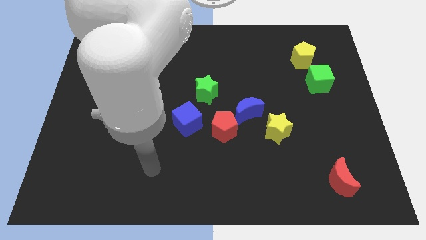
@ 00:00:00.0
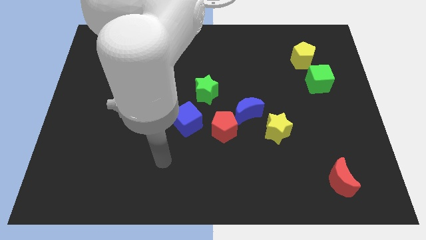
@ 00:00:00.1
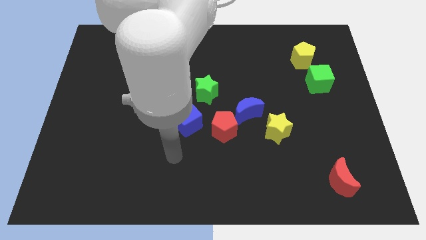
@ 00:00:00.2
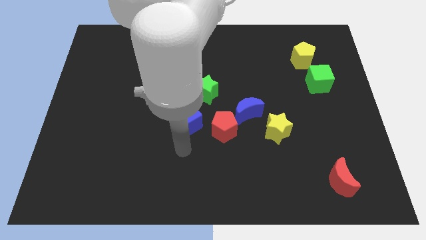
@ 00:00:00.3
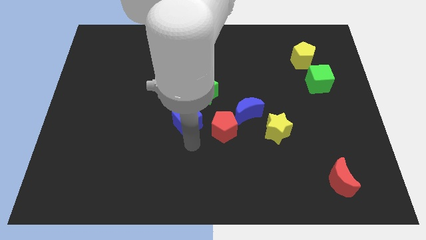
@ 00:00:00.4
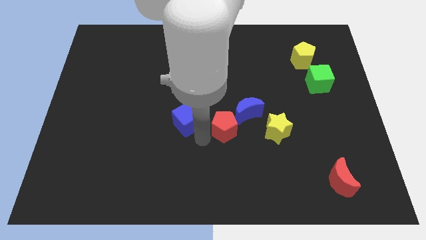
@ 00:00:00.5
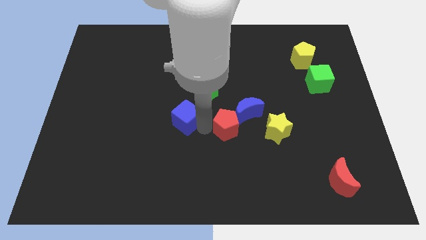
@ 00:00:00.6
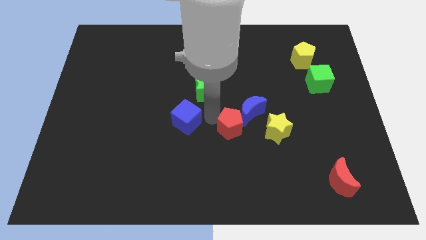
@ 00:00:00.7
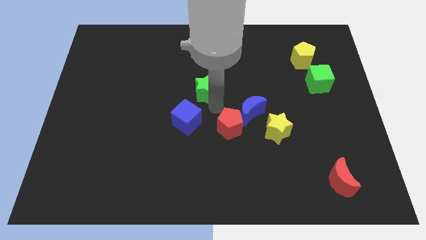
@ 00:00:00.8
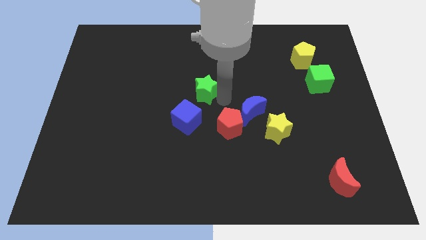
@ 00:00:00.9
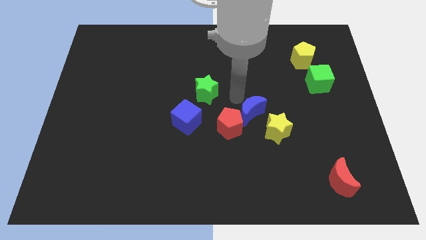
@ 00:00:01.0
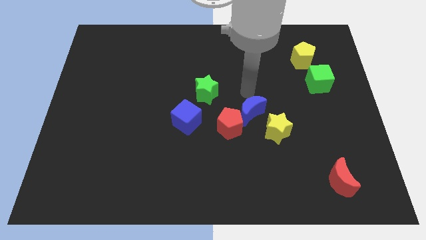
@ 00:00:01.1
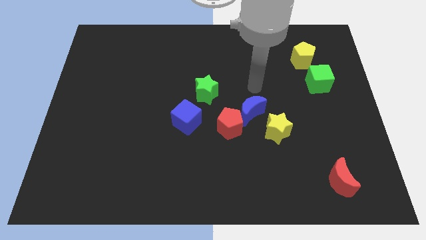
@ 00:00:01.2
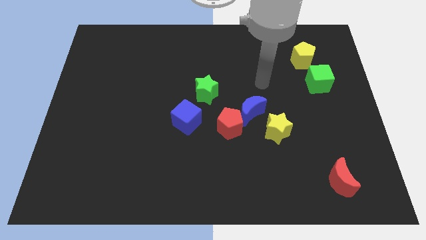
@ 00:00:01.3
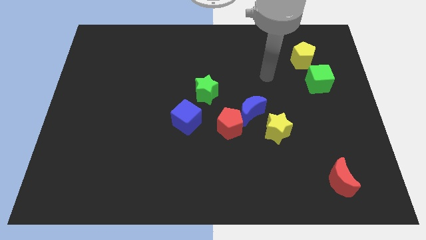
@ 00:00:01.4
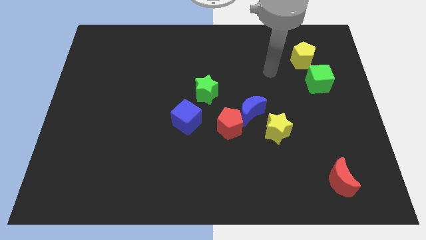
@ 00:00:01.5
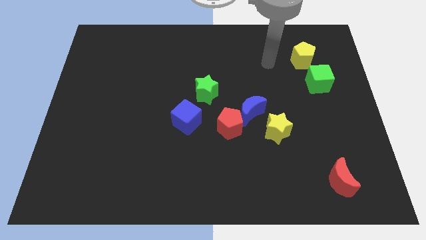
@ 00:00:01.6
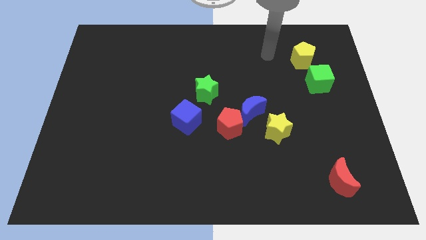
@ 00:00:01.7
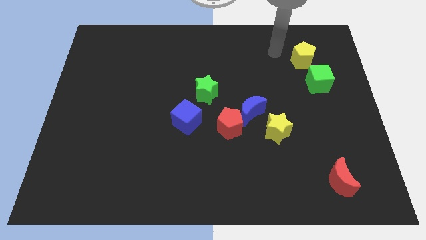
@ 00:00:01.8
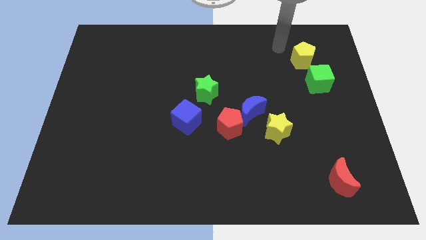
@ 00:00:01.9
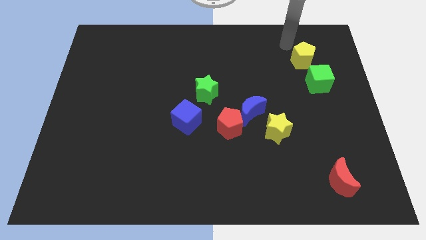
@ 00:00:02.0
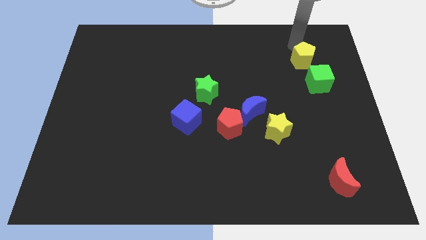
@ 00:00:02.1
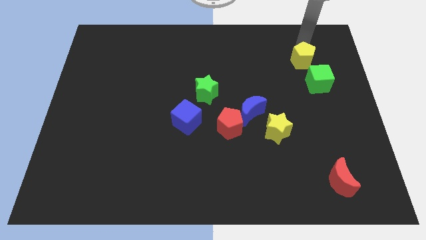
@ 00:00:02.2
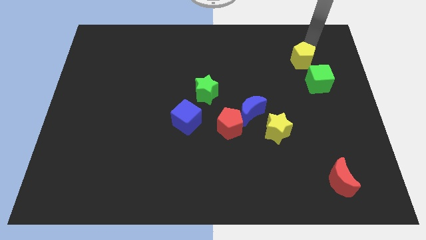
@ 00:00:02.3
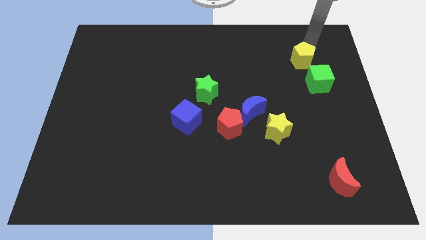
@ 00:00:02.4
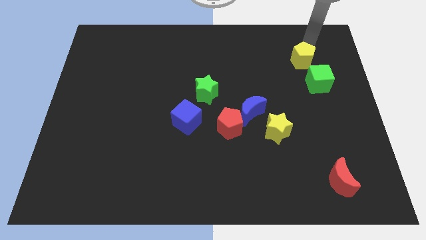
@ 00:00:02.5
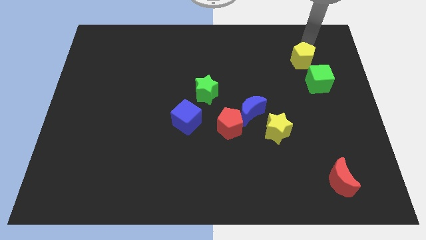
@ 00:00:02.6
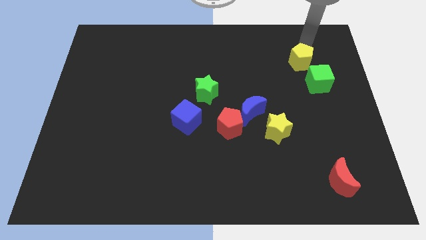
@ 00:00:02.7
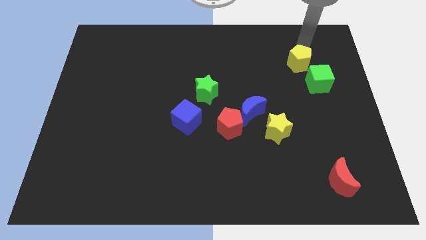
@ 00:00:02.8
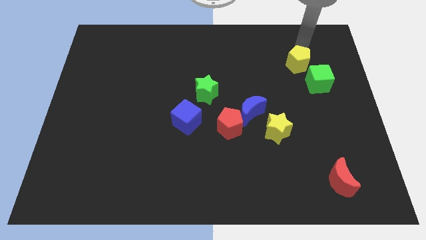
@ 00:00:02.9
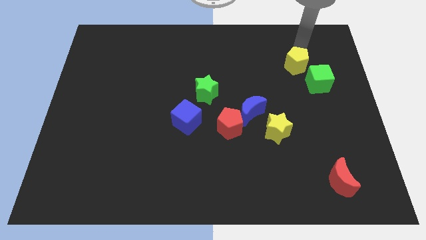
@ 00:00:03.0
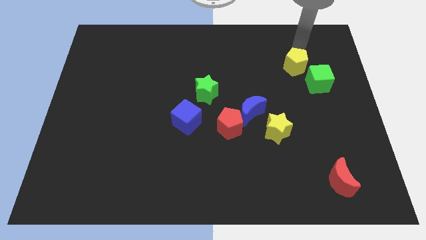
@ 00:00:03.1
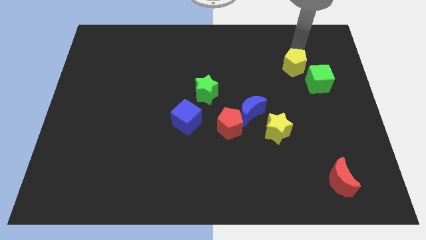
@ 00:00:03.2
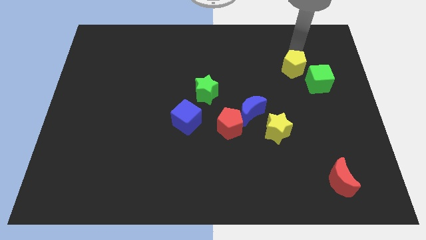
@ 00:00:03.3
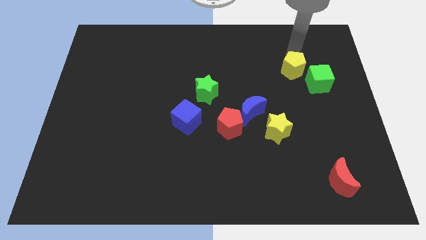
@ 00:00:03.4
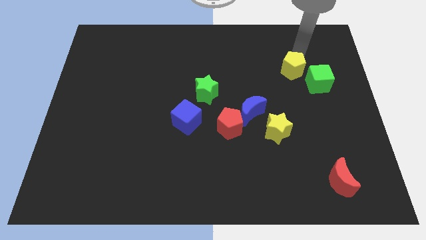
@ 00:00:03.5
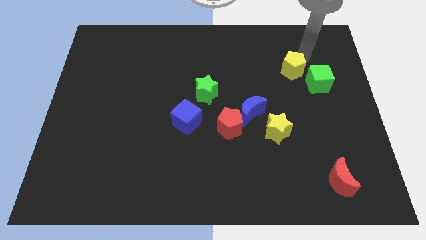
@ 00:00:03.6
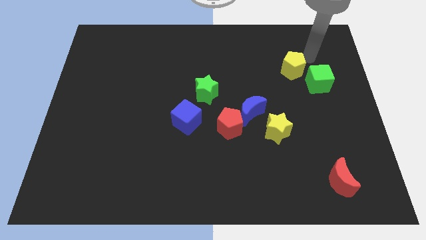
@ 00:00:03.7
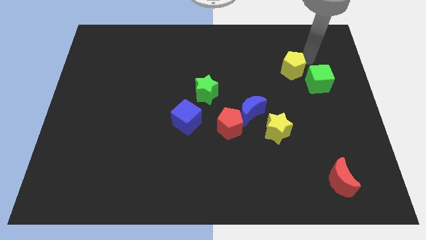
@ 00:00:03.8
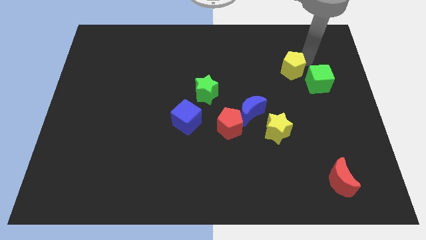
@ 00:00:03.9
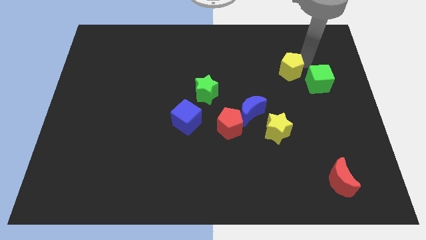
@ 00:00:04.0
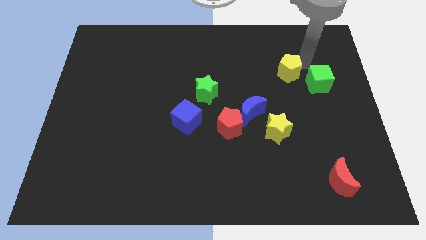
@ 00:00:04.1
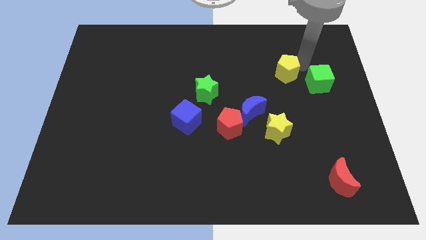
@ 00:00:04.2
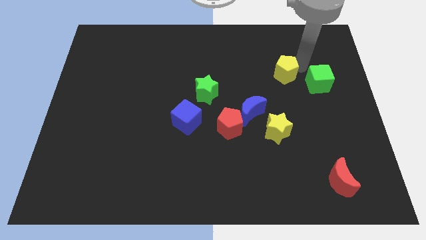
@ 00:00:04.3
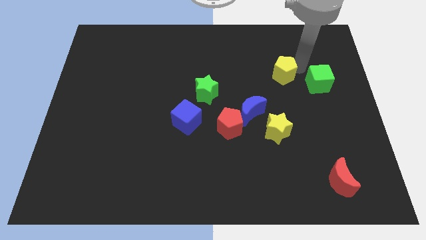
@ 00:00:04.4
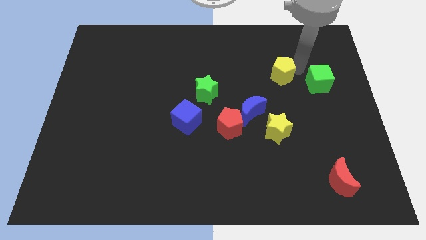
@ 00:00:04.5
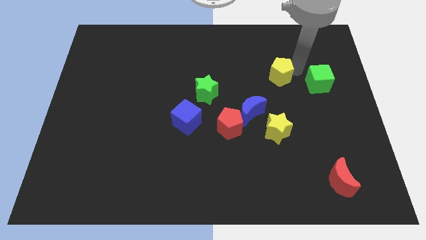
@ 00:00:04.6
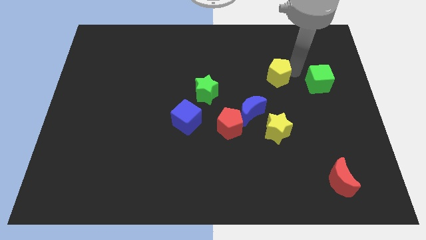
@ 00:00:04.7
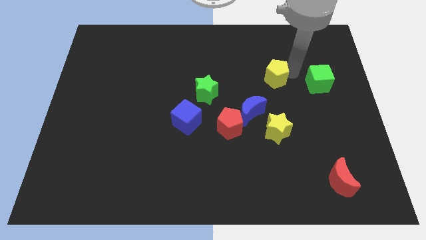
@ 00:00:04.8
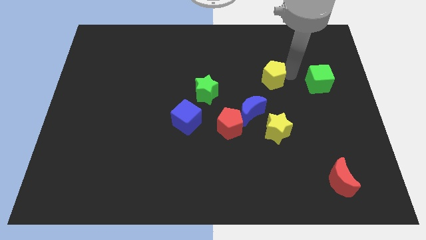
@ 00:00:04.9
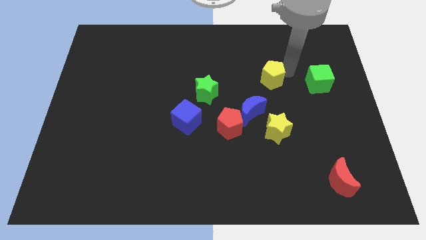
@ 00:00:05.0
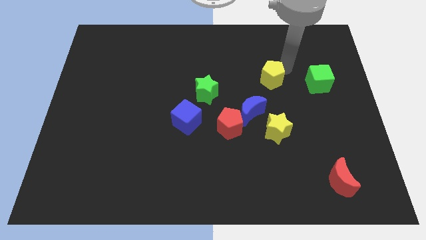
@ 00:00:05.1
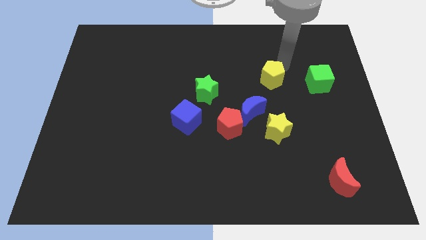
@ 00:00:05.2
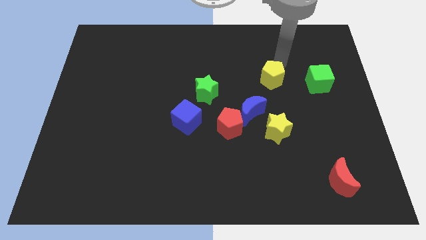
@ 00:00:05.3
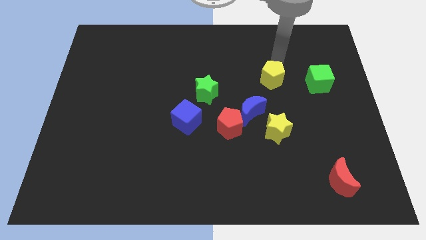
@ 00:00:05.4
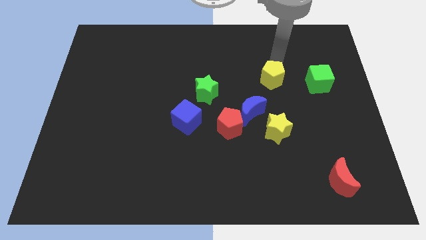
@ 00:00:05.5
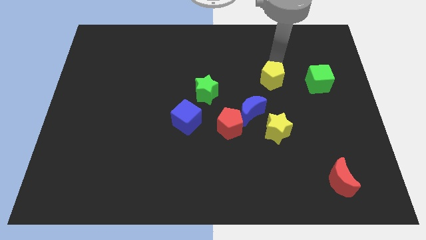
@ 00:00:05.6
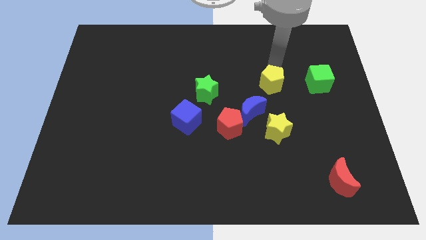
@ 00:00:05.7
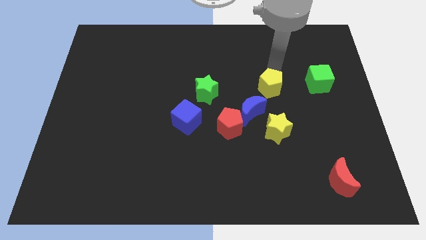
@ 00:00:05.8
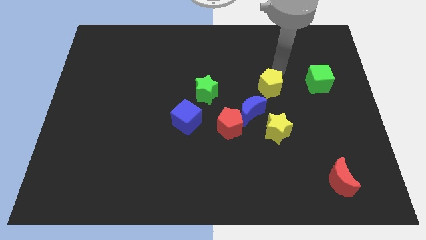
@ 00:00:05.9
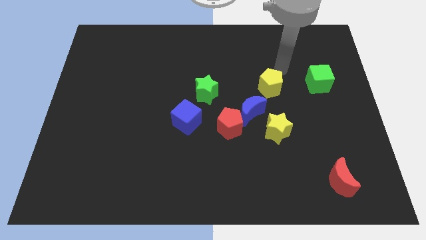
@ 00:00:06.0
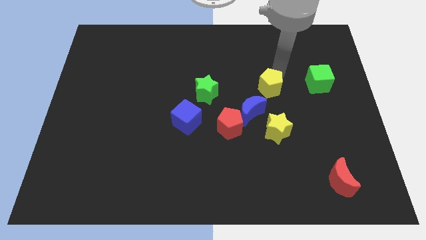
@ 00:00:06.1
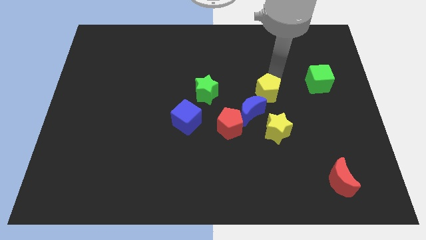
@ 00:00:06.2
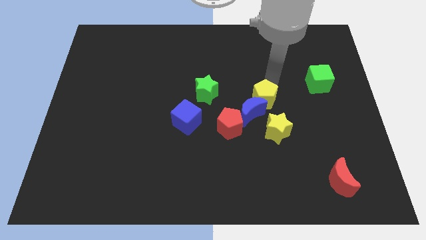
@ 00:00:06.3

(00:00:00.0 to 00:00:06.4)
slide the yellow pentagon towards the blue moon

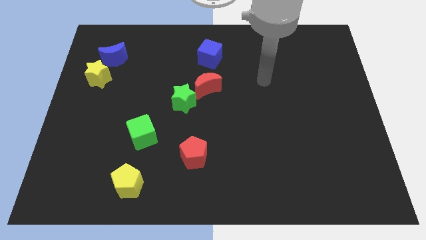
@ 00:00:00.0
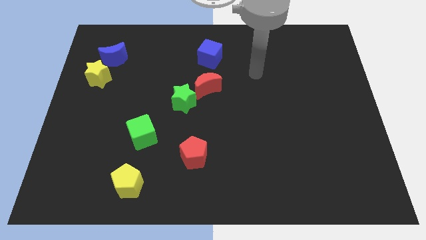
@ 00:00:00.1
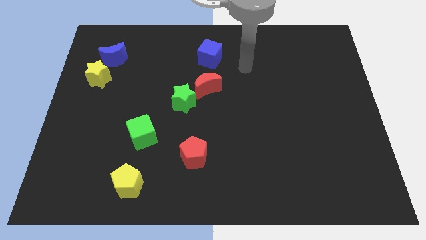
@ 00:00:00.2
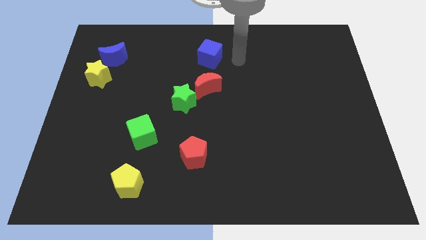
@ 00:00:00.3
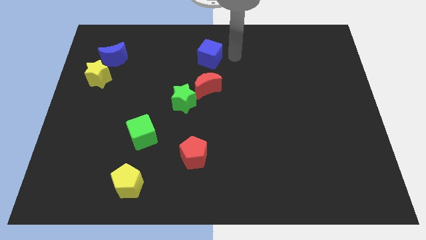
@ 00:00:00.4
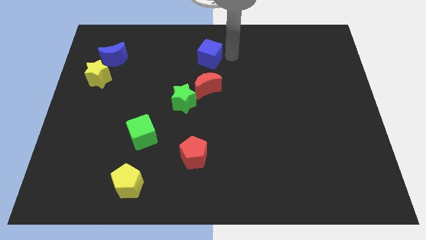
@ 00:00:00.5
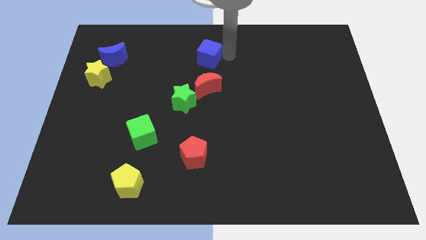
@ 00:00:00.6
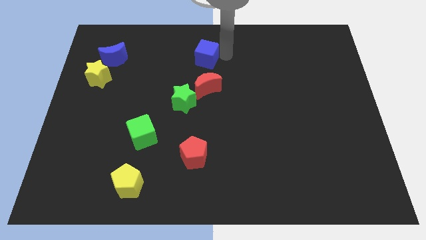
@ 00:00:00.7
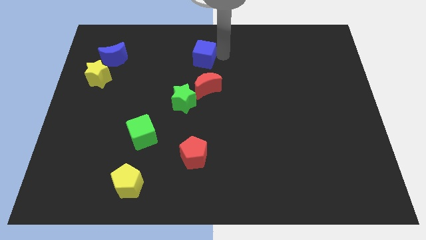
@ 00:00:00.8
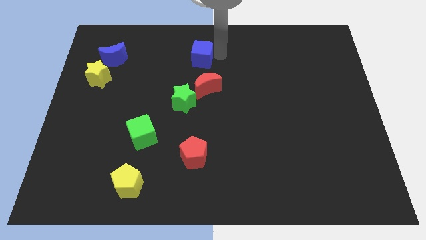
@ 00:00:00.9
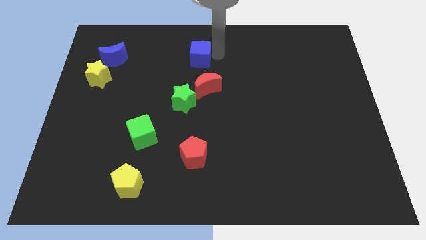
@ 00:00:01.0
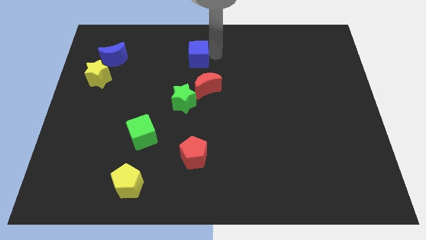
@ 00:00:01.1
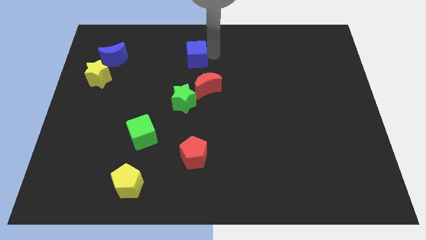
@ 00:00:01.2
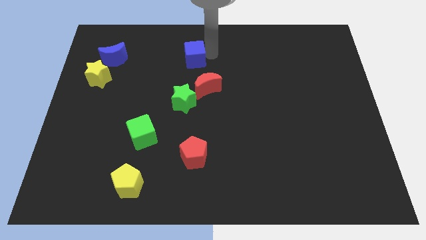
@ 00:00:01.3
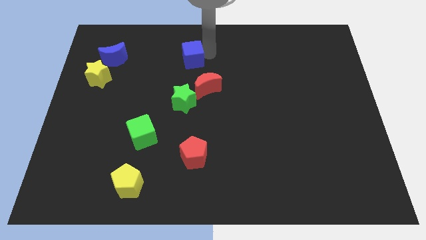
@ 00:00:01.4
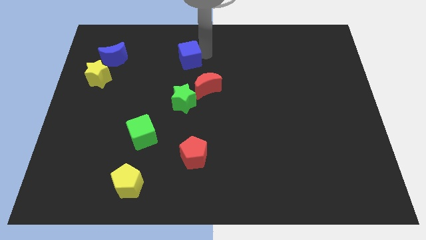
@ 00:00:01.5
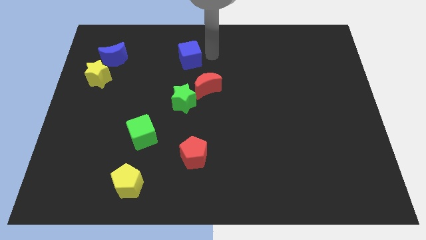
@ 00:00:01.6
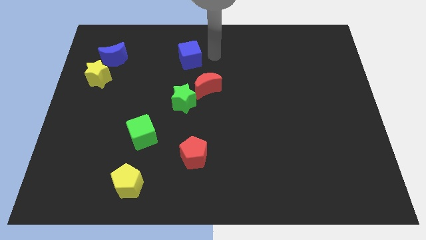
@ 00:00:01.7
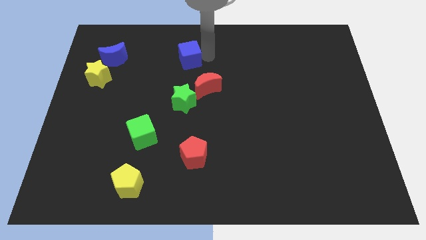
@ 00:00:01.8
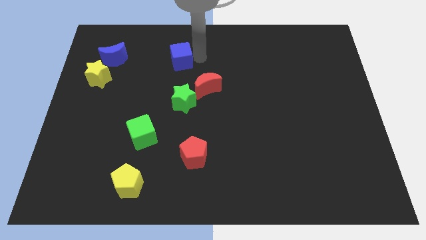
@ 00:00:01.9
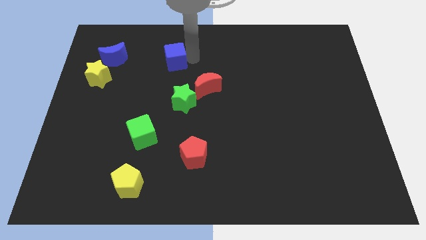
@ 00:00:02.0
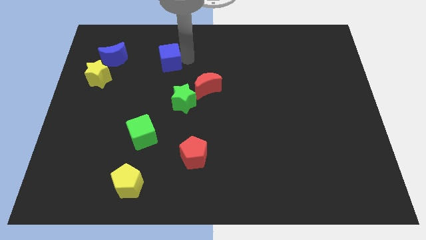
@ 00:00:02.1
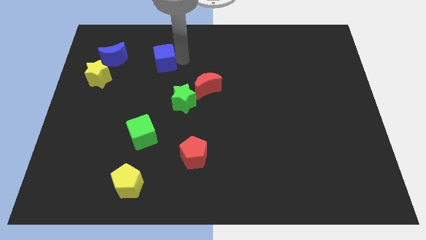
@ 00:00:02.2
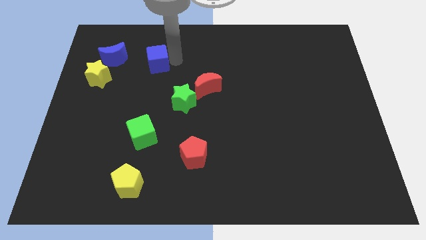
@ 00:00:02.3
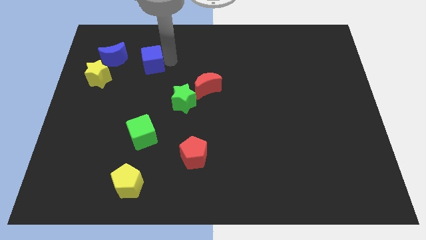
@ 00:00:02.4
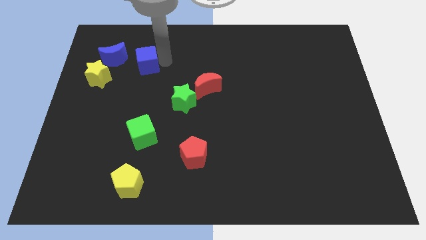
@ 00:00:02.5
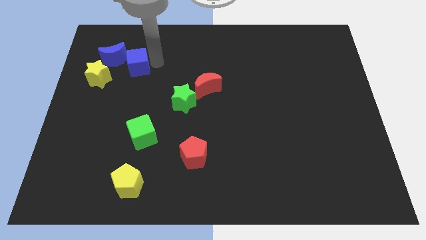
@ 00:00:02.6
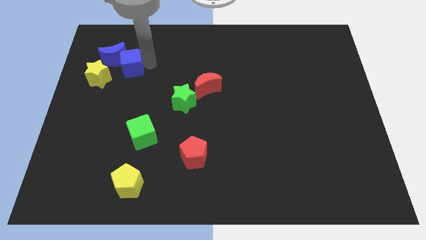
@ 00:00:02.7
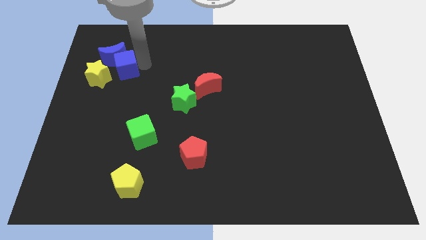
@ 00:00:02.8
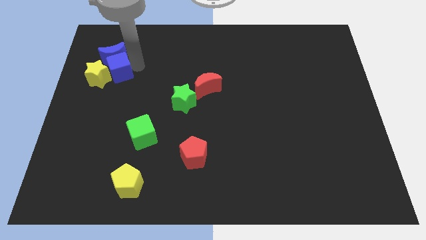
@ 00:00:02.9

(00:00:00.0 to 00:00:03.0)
push the blue cube to the yellow star
